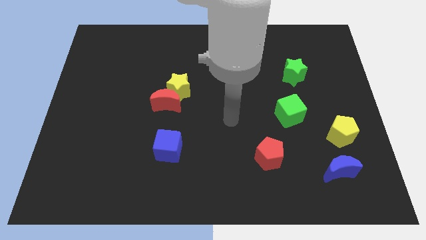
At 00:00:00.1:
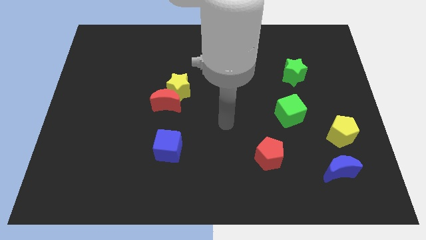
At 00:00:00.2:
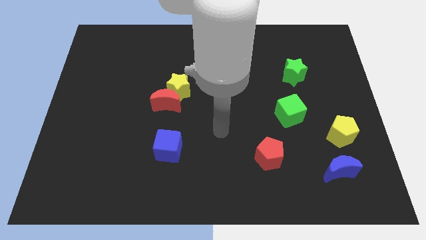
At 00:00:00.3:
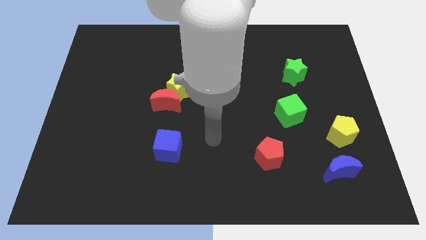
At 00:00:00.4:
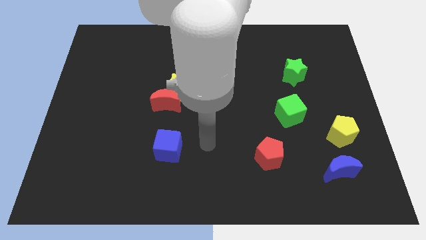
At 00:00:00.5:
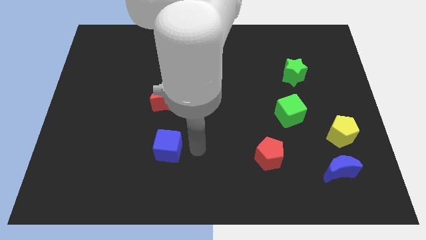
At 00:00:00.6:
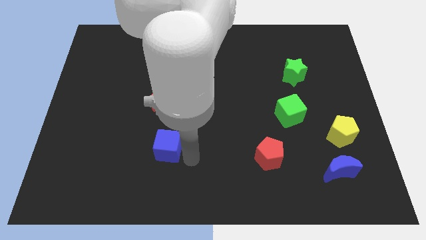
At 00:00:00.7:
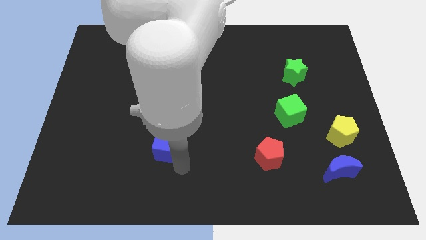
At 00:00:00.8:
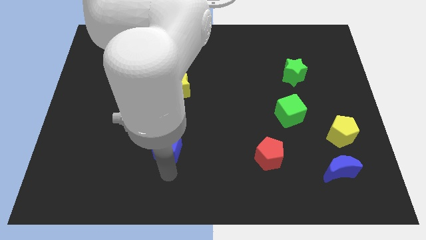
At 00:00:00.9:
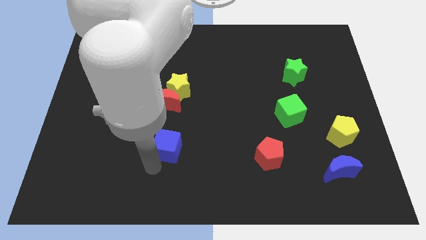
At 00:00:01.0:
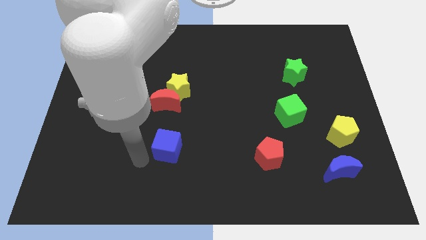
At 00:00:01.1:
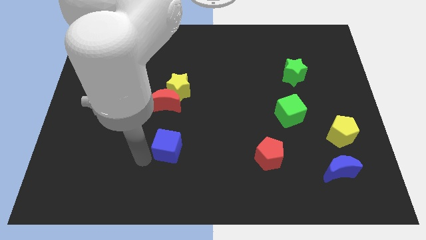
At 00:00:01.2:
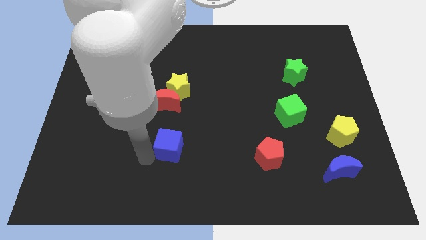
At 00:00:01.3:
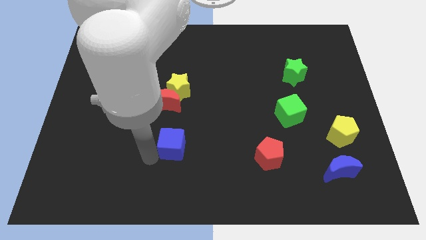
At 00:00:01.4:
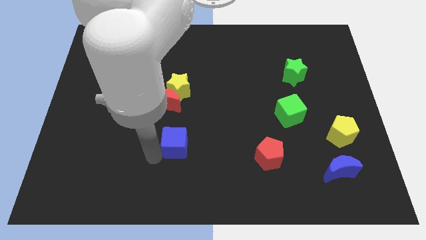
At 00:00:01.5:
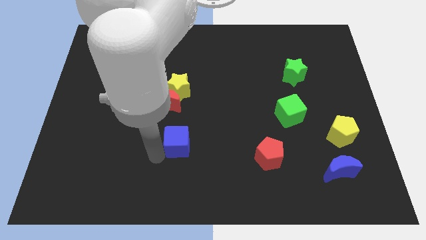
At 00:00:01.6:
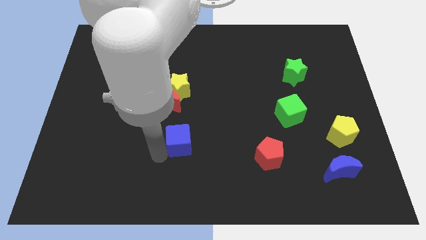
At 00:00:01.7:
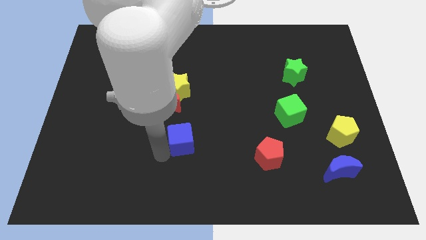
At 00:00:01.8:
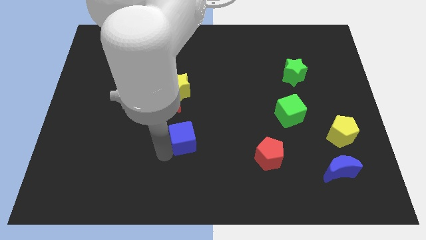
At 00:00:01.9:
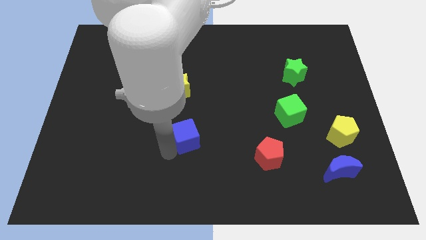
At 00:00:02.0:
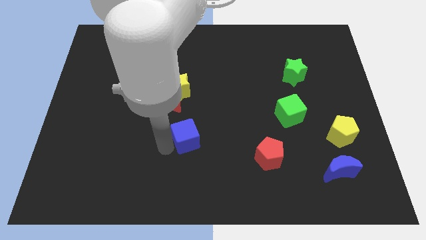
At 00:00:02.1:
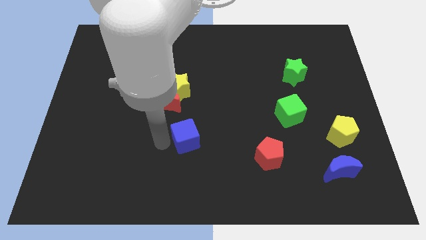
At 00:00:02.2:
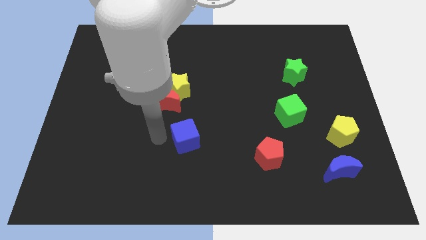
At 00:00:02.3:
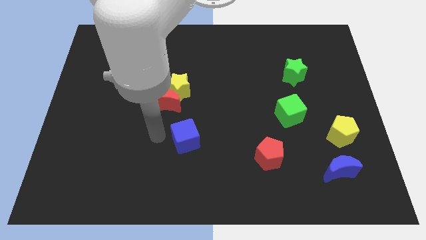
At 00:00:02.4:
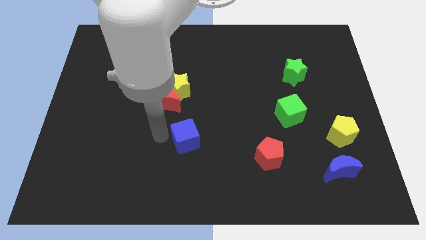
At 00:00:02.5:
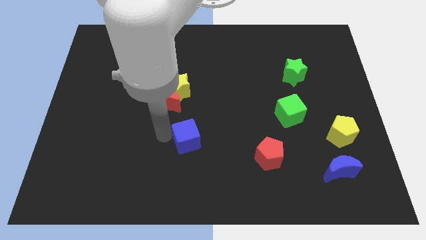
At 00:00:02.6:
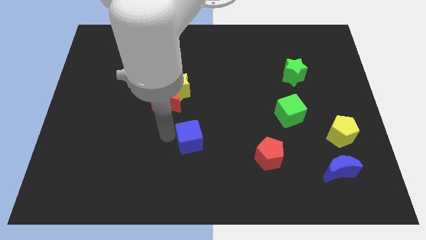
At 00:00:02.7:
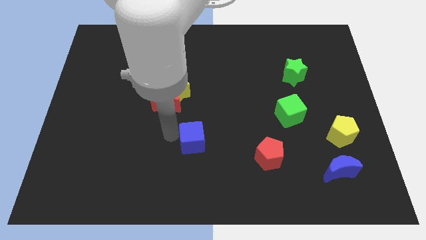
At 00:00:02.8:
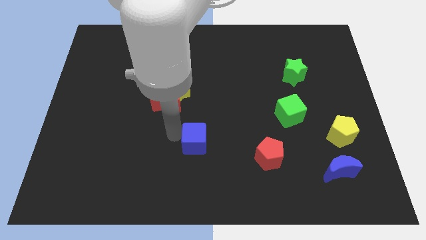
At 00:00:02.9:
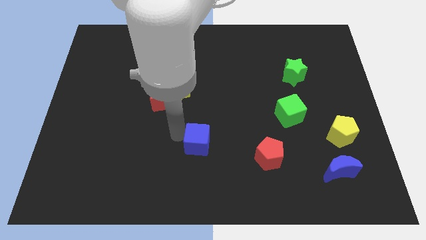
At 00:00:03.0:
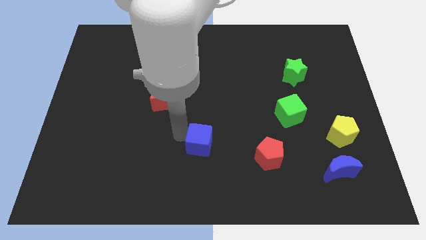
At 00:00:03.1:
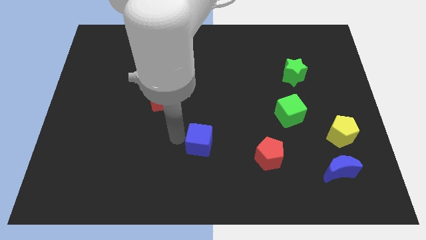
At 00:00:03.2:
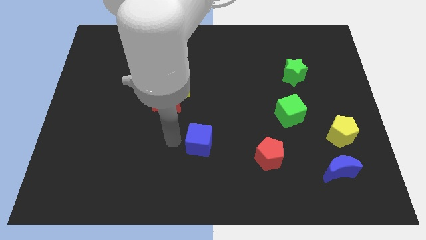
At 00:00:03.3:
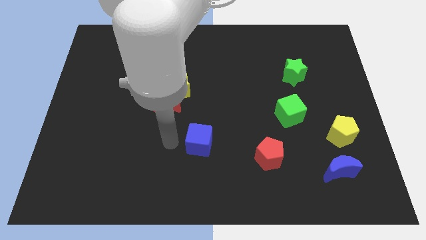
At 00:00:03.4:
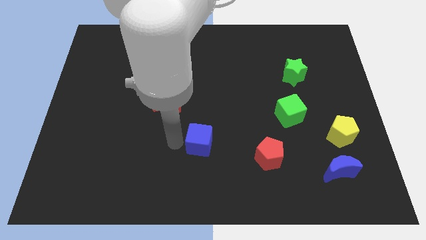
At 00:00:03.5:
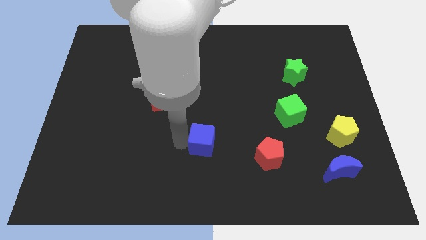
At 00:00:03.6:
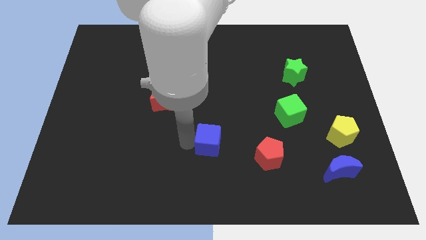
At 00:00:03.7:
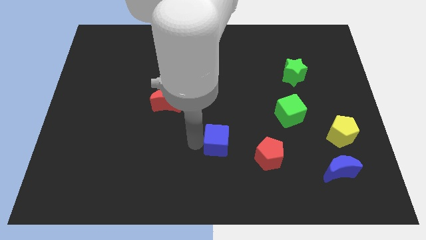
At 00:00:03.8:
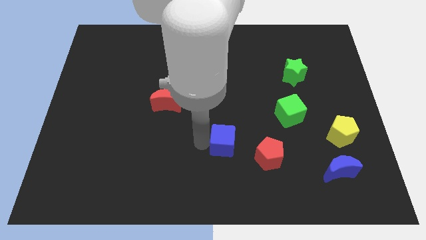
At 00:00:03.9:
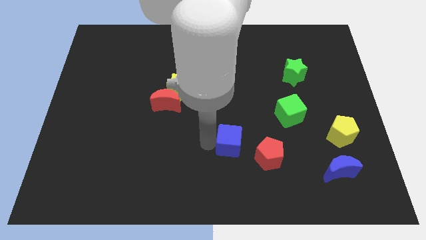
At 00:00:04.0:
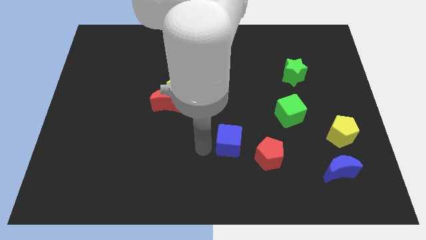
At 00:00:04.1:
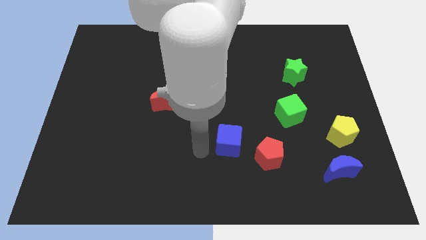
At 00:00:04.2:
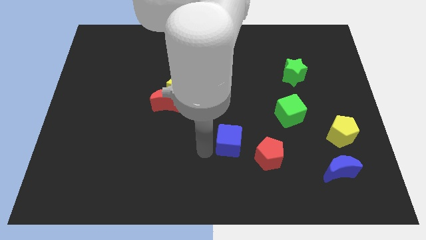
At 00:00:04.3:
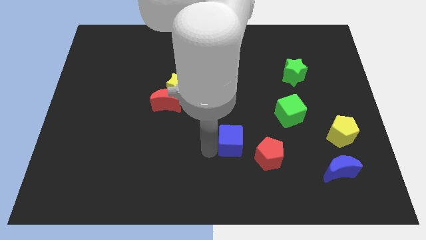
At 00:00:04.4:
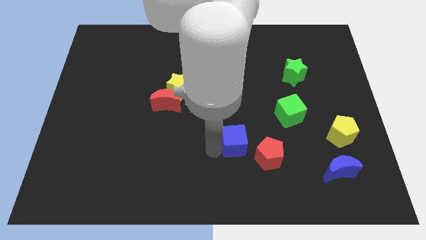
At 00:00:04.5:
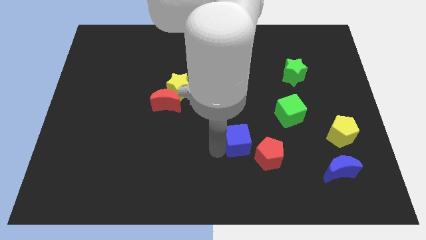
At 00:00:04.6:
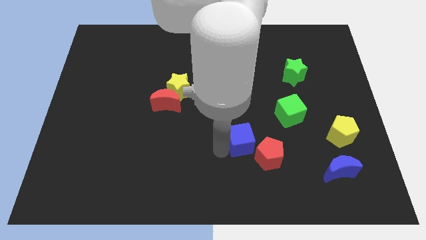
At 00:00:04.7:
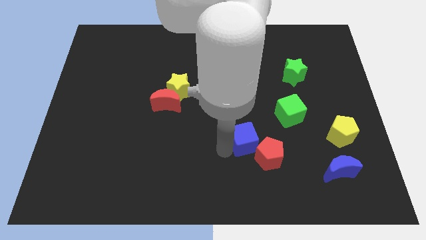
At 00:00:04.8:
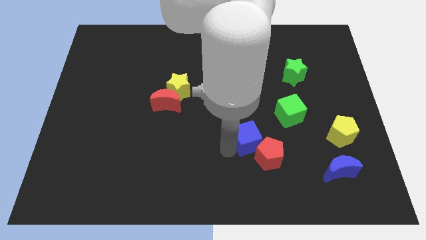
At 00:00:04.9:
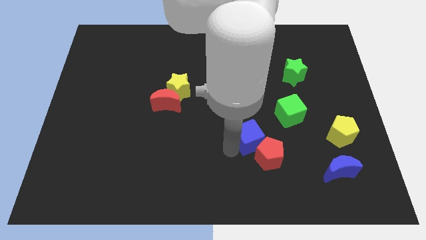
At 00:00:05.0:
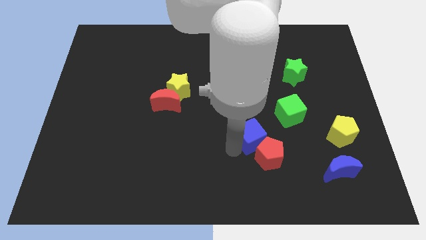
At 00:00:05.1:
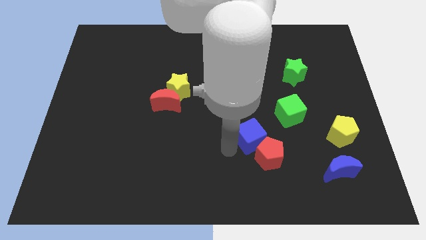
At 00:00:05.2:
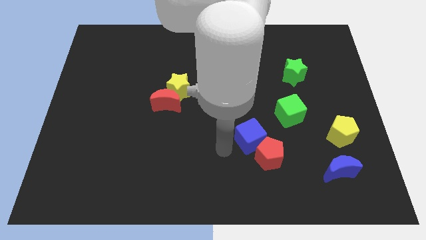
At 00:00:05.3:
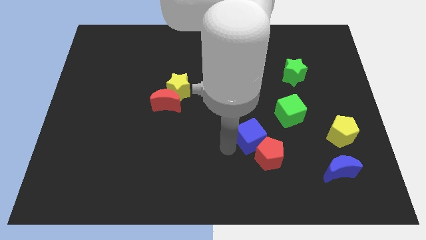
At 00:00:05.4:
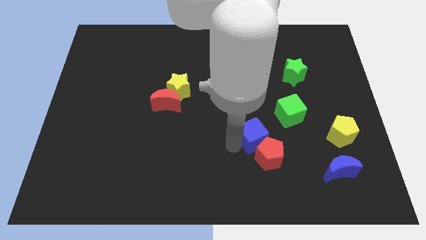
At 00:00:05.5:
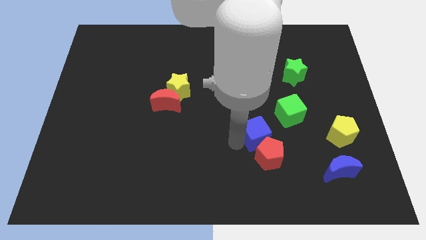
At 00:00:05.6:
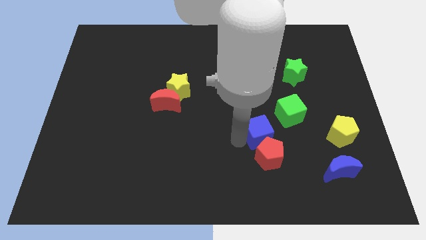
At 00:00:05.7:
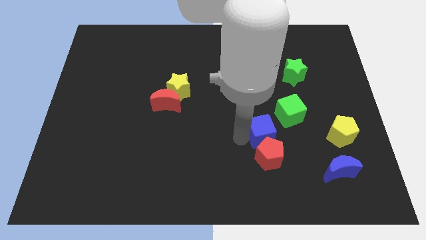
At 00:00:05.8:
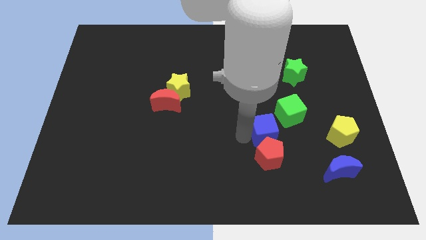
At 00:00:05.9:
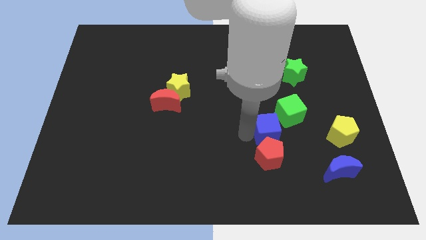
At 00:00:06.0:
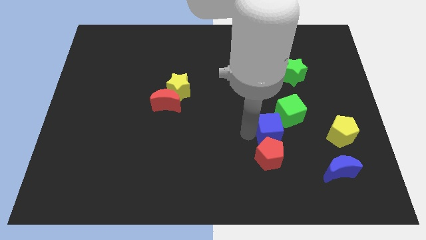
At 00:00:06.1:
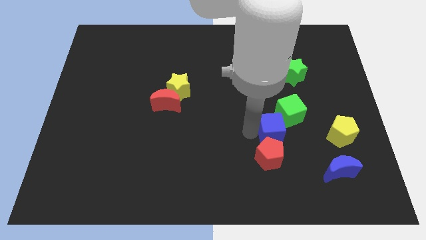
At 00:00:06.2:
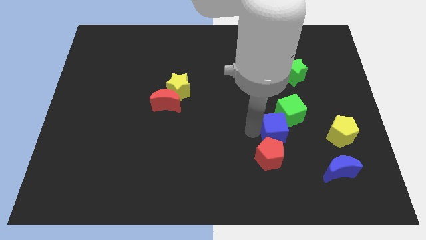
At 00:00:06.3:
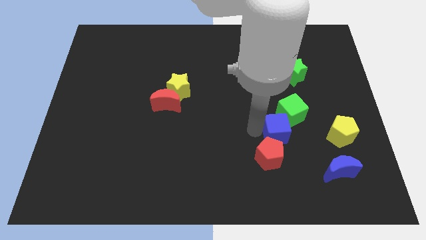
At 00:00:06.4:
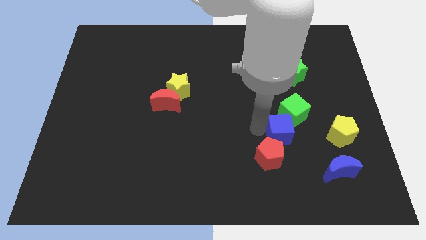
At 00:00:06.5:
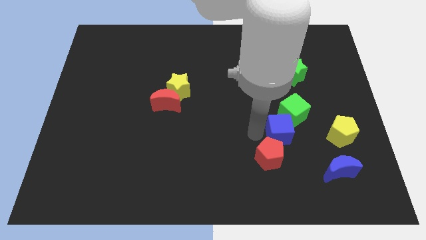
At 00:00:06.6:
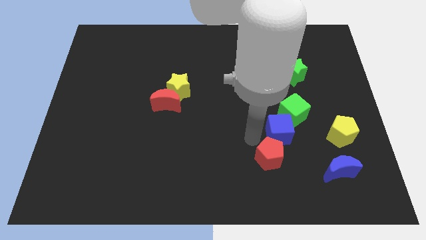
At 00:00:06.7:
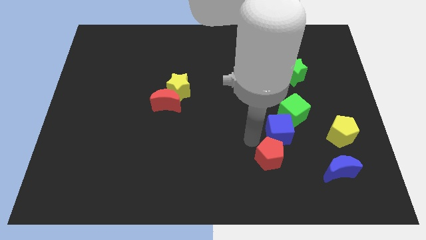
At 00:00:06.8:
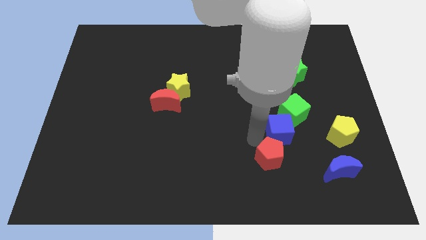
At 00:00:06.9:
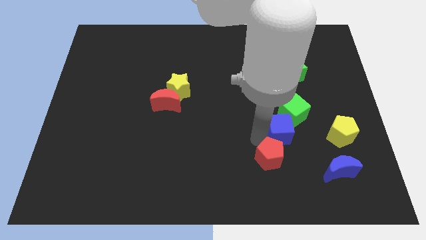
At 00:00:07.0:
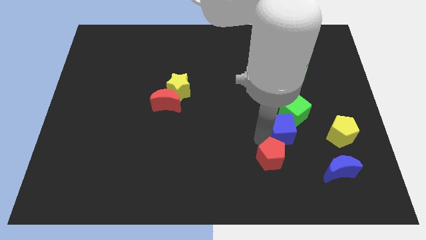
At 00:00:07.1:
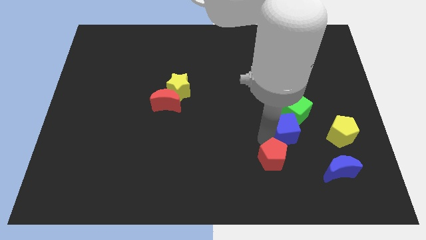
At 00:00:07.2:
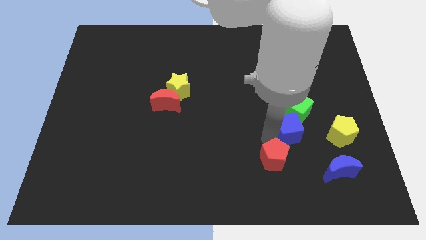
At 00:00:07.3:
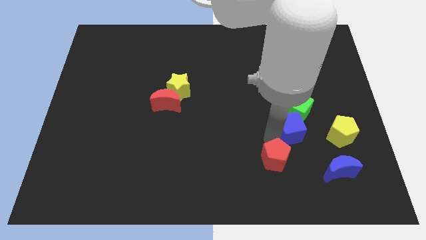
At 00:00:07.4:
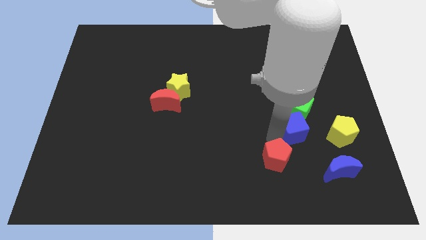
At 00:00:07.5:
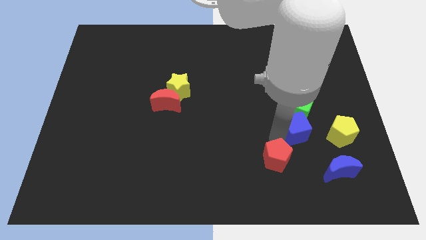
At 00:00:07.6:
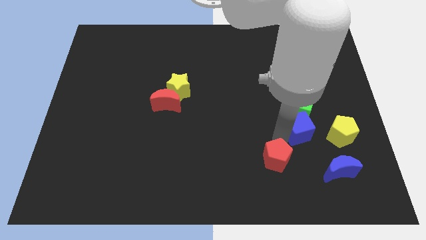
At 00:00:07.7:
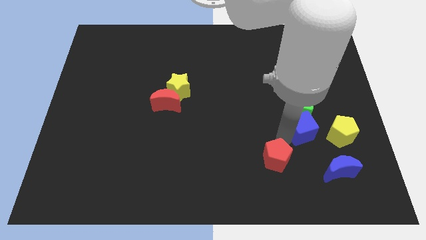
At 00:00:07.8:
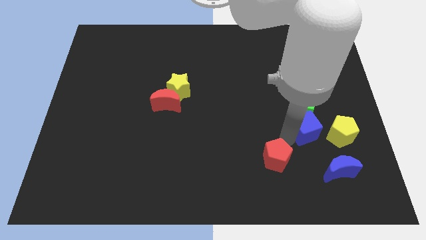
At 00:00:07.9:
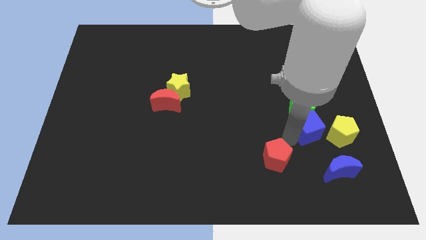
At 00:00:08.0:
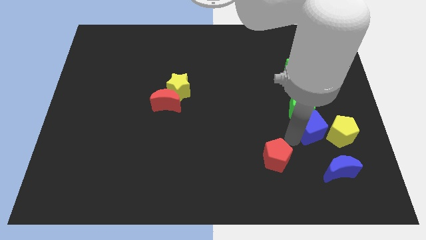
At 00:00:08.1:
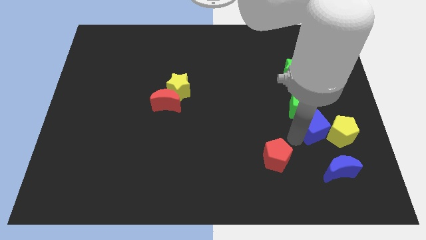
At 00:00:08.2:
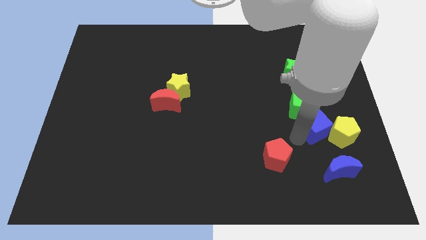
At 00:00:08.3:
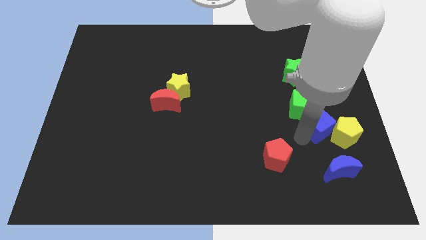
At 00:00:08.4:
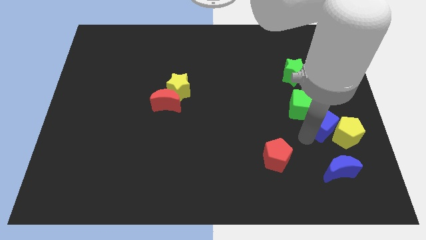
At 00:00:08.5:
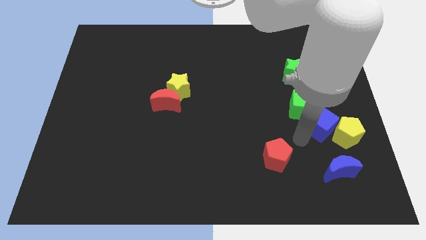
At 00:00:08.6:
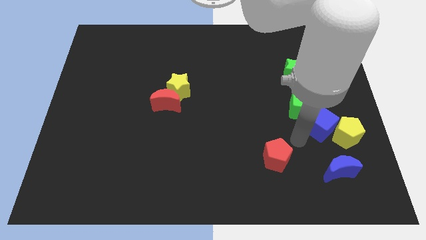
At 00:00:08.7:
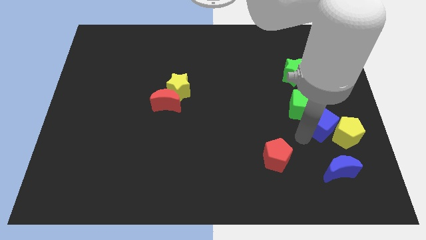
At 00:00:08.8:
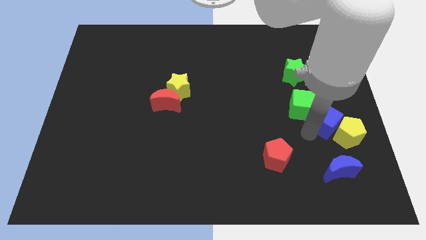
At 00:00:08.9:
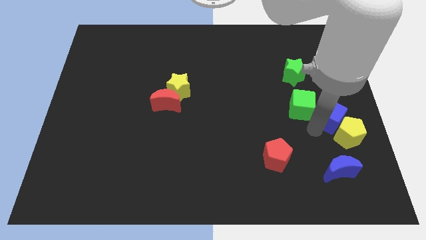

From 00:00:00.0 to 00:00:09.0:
move the blue cube to the center right
